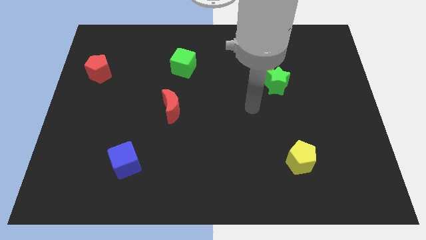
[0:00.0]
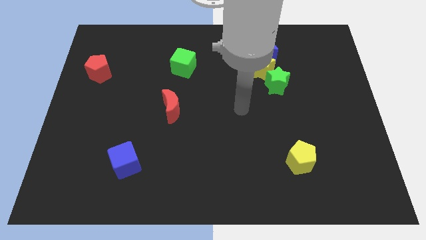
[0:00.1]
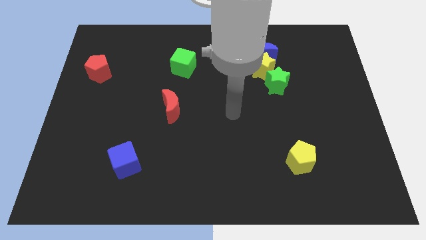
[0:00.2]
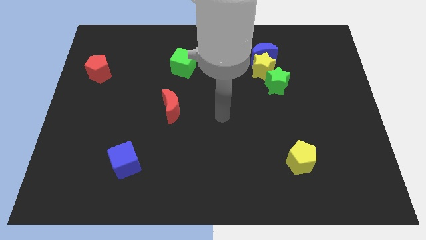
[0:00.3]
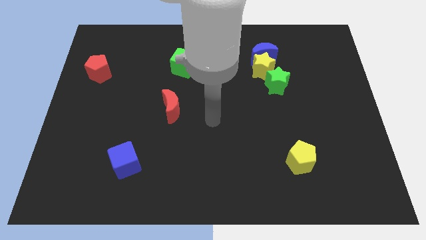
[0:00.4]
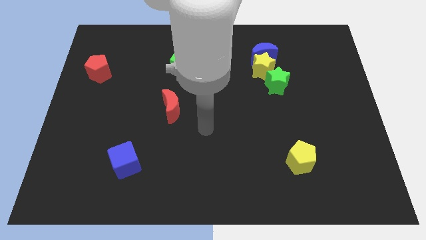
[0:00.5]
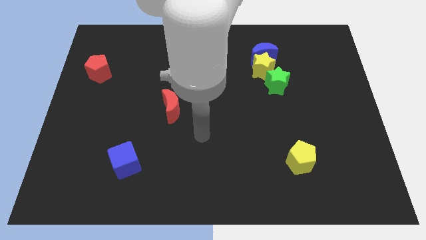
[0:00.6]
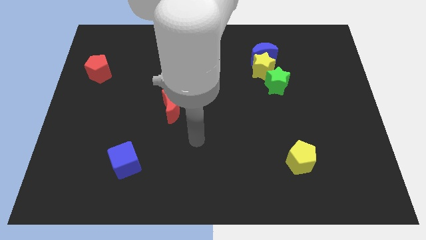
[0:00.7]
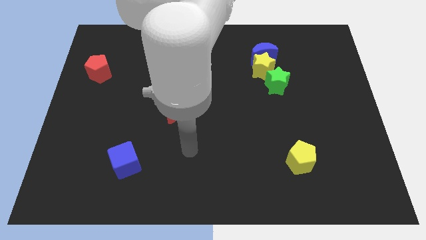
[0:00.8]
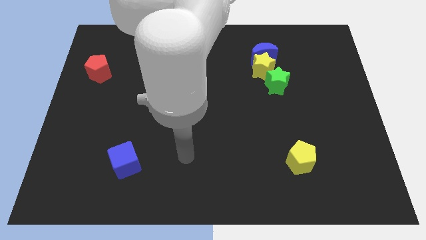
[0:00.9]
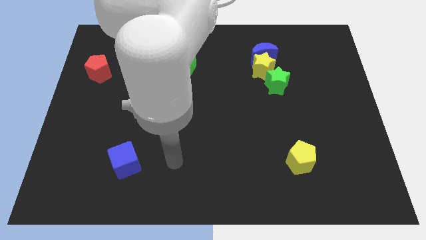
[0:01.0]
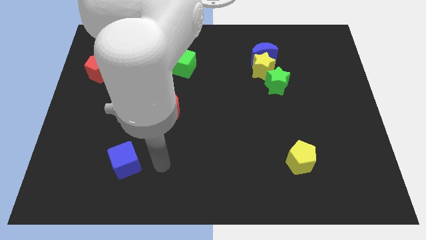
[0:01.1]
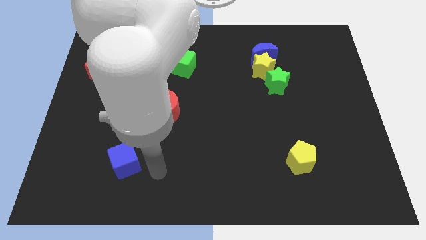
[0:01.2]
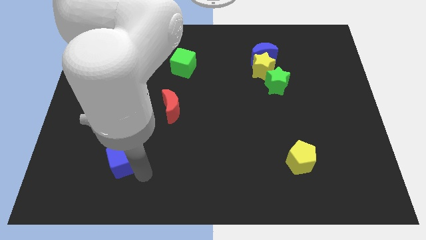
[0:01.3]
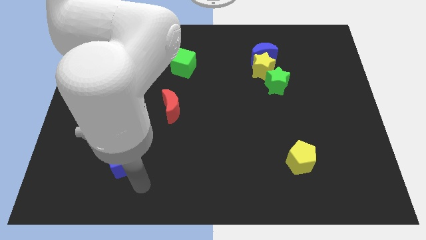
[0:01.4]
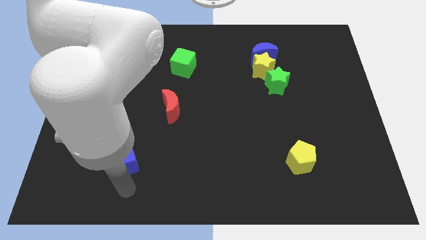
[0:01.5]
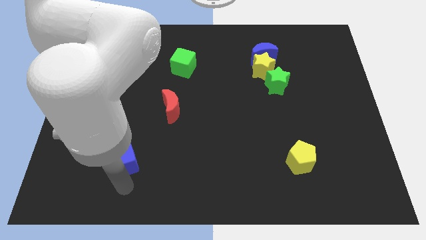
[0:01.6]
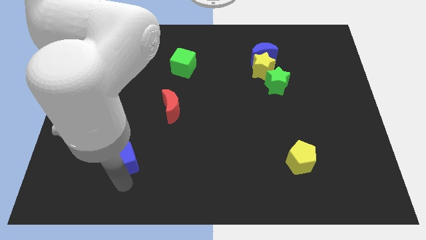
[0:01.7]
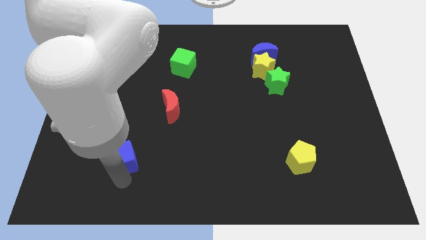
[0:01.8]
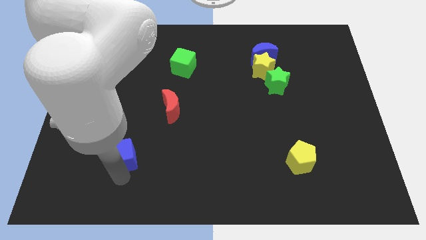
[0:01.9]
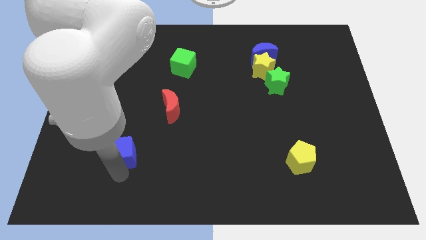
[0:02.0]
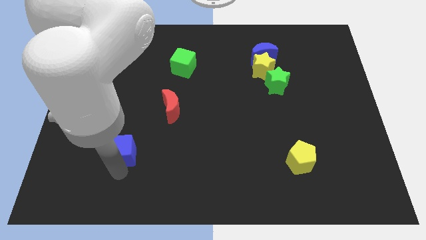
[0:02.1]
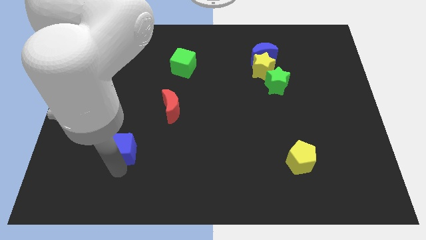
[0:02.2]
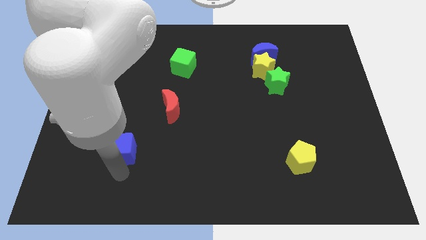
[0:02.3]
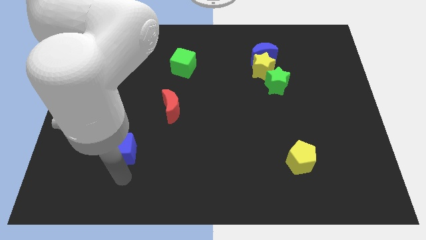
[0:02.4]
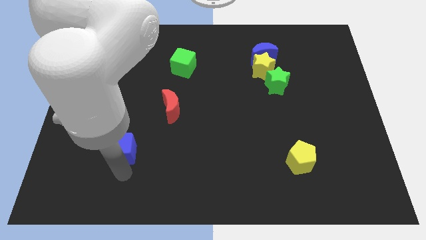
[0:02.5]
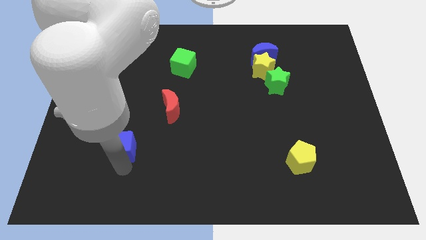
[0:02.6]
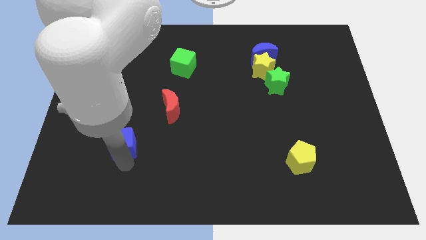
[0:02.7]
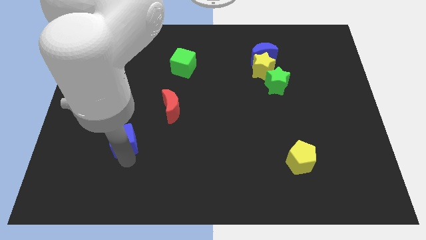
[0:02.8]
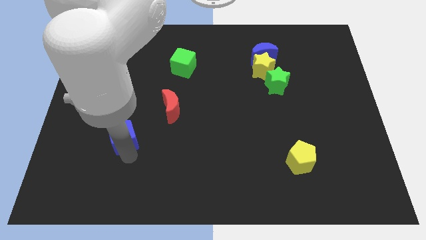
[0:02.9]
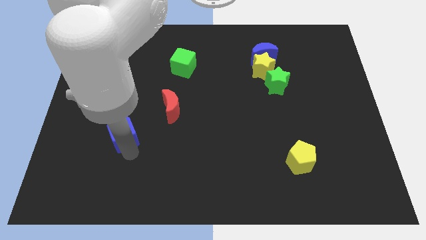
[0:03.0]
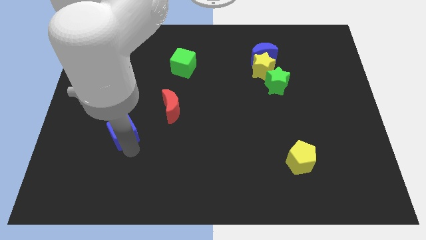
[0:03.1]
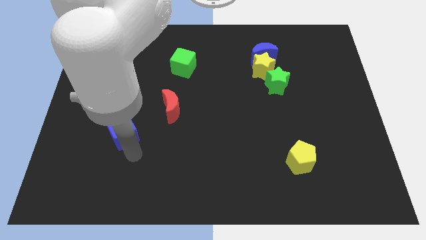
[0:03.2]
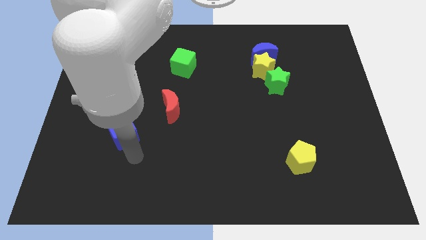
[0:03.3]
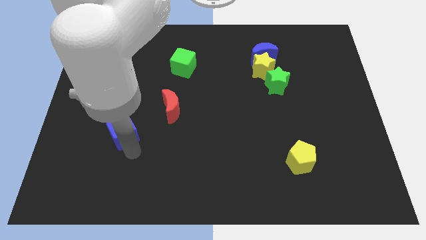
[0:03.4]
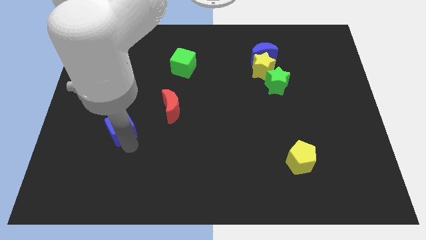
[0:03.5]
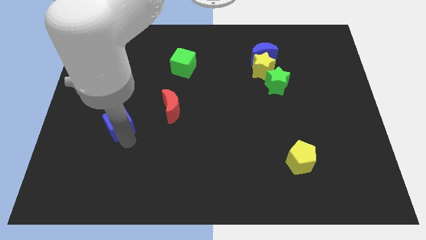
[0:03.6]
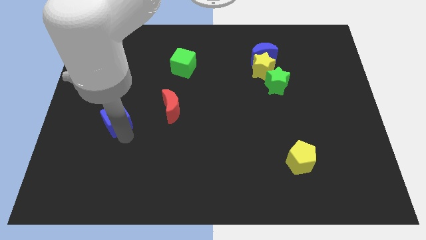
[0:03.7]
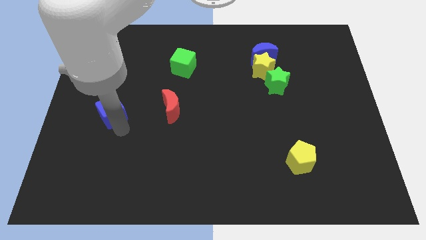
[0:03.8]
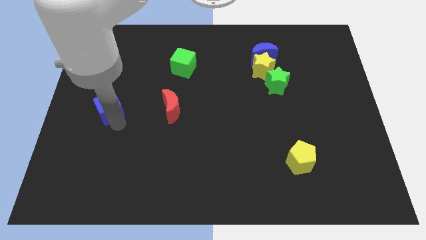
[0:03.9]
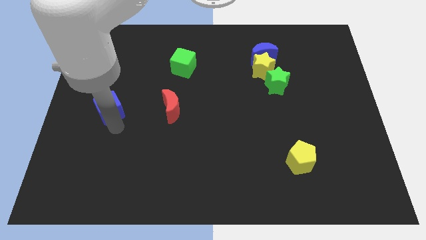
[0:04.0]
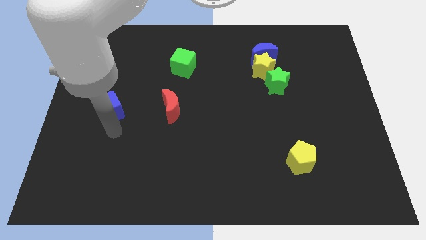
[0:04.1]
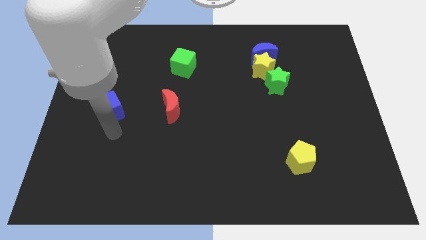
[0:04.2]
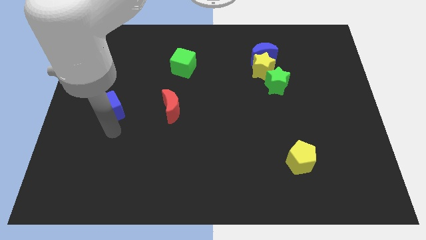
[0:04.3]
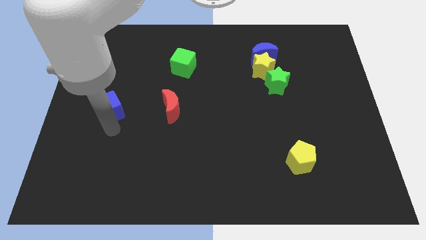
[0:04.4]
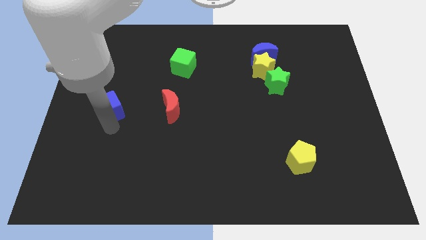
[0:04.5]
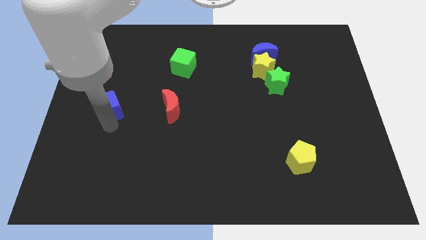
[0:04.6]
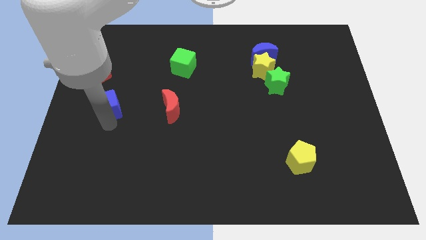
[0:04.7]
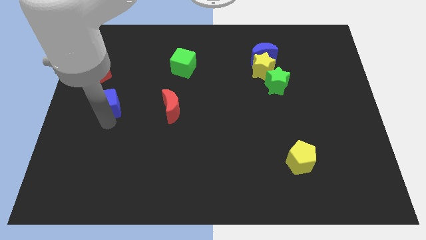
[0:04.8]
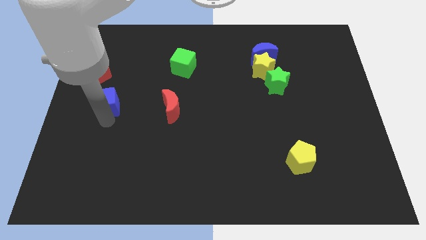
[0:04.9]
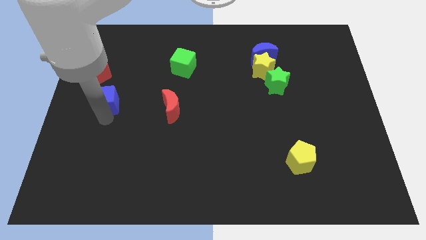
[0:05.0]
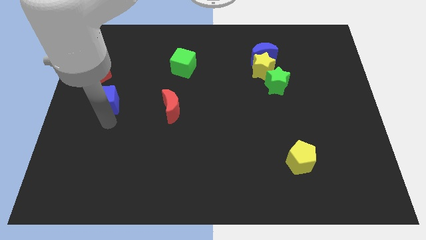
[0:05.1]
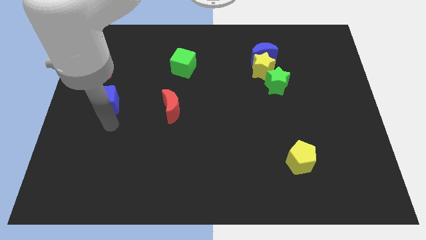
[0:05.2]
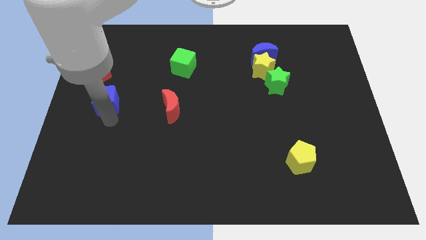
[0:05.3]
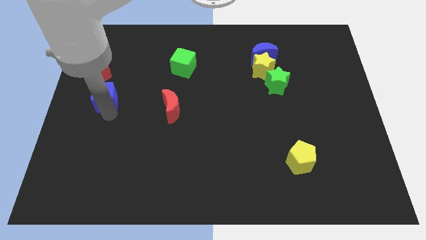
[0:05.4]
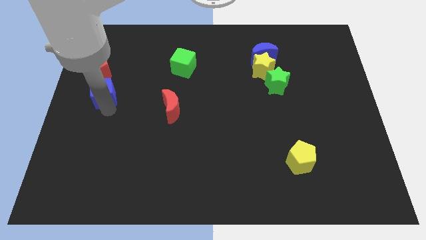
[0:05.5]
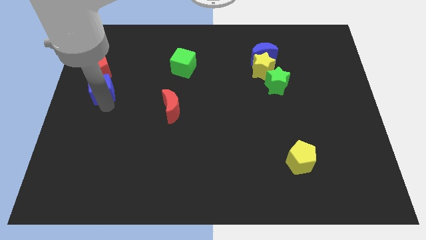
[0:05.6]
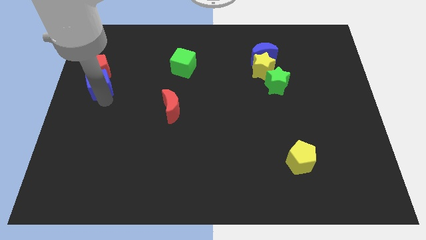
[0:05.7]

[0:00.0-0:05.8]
slide the blue cube close to the red pentagon

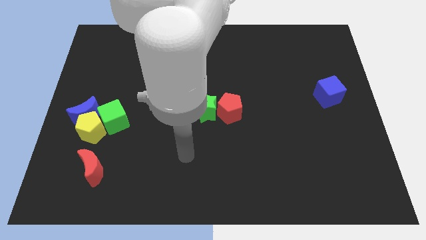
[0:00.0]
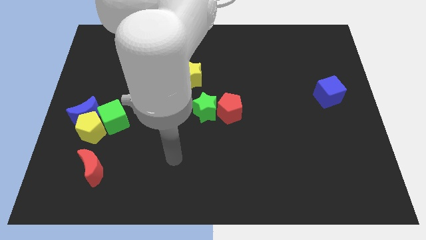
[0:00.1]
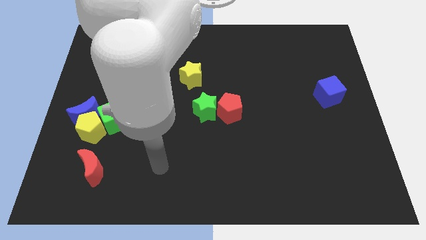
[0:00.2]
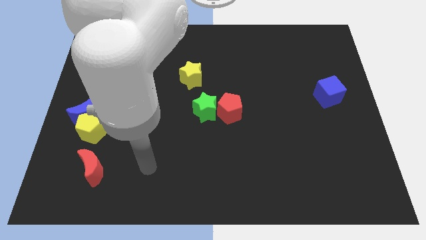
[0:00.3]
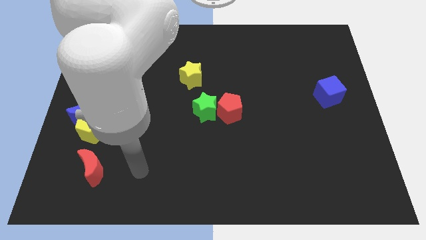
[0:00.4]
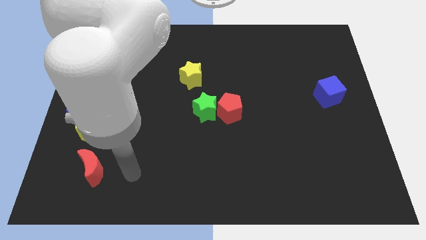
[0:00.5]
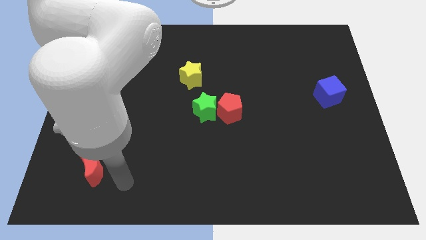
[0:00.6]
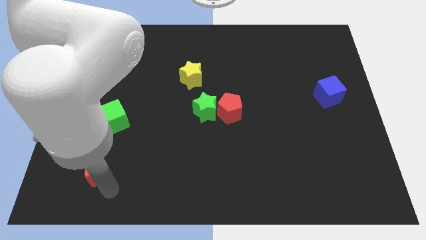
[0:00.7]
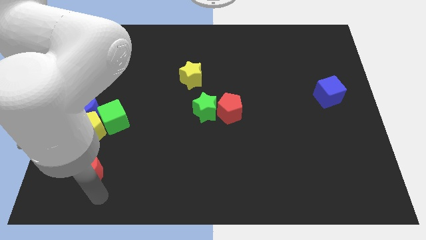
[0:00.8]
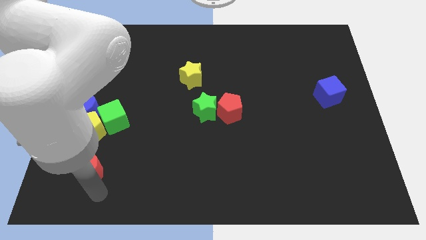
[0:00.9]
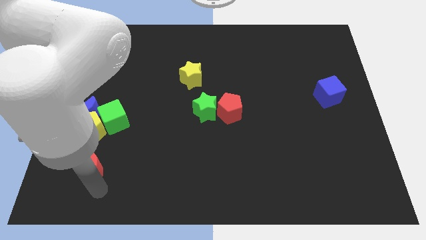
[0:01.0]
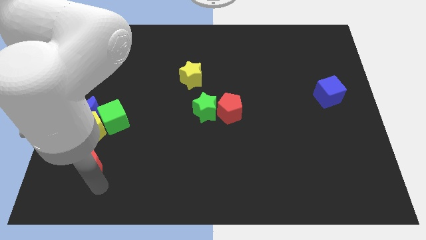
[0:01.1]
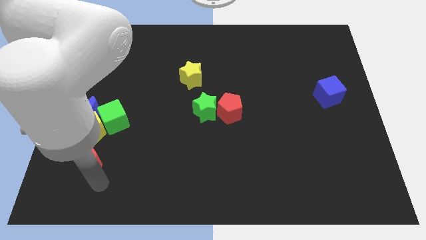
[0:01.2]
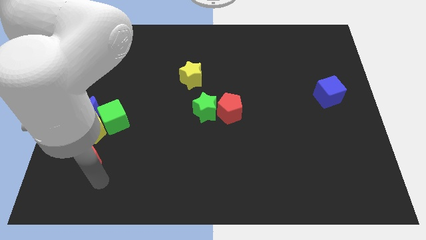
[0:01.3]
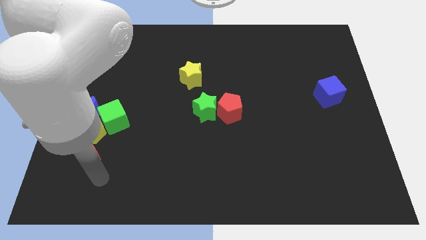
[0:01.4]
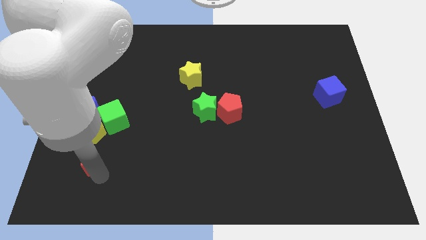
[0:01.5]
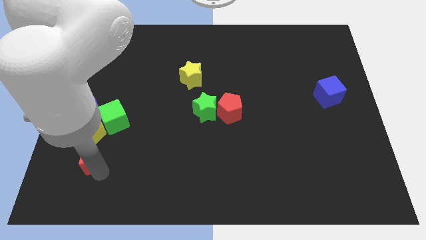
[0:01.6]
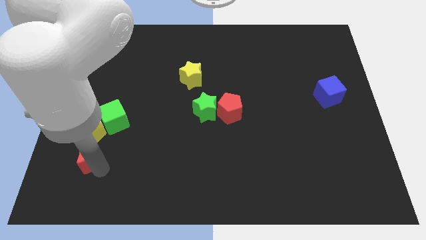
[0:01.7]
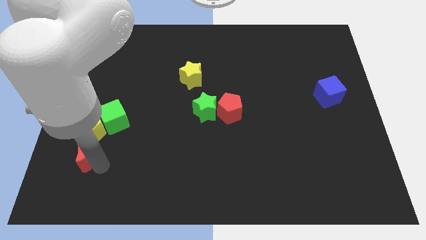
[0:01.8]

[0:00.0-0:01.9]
slide the red moon next to the yellow pentagon
